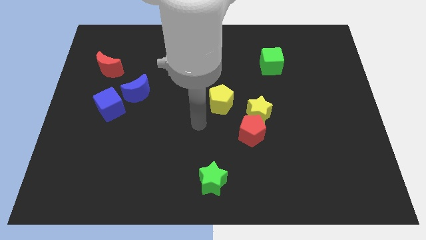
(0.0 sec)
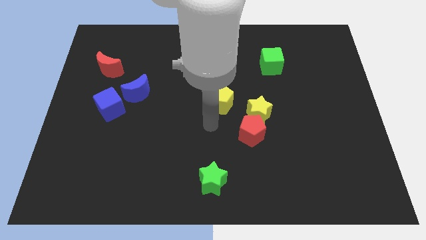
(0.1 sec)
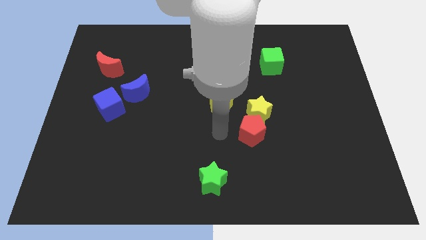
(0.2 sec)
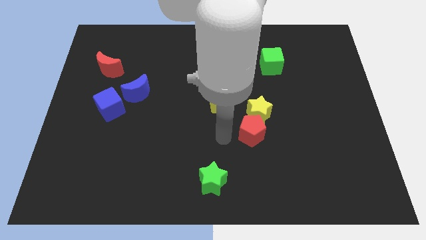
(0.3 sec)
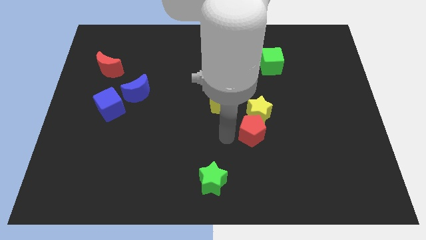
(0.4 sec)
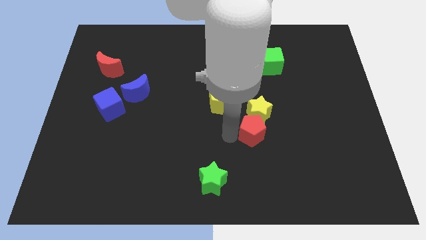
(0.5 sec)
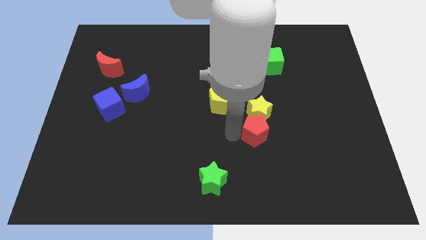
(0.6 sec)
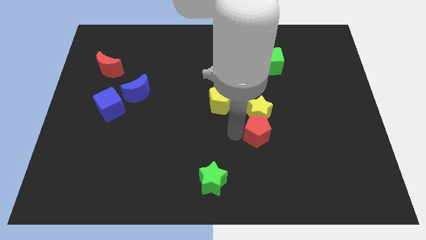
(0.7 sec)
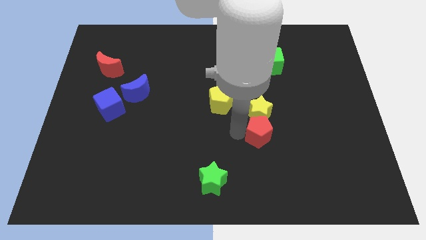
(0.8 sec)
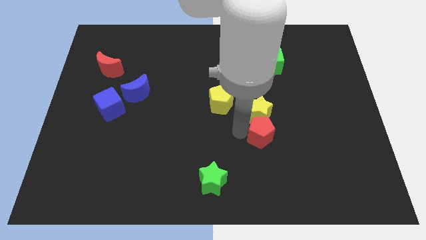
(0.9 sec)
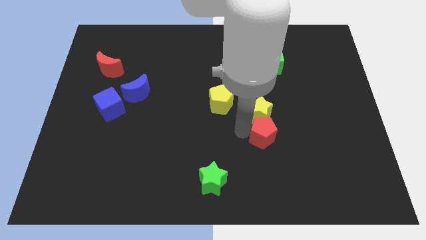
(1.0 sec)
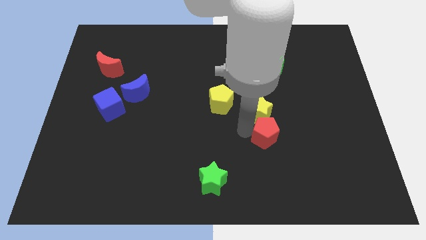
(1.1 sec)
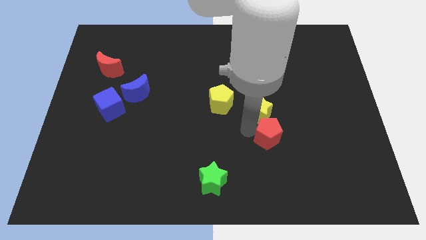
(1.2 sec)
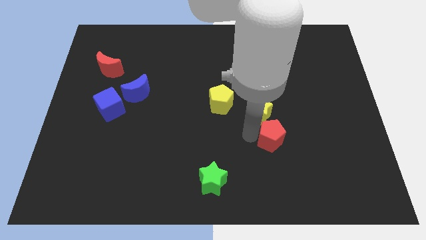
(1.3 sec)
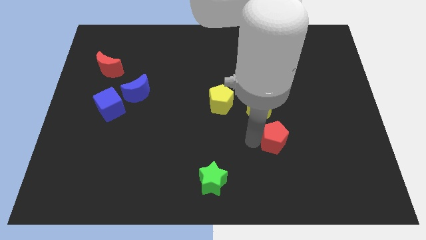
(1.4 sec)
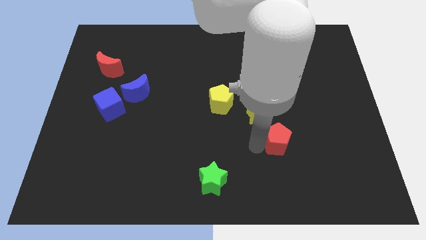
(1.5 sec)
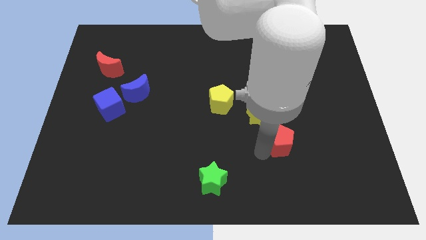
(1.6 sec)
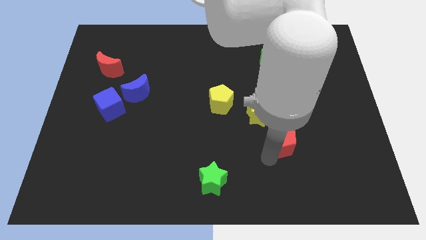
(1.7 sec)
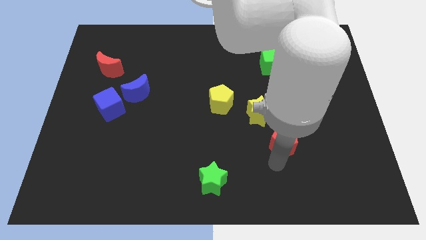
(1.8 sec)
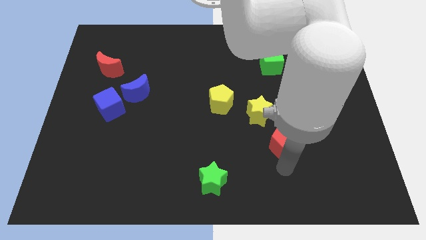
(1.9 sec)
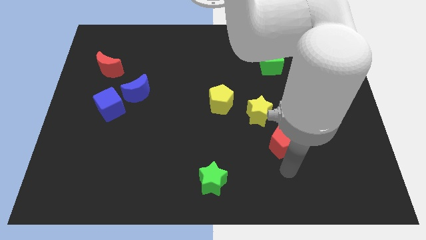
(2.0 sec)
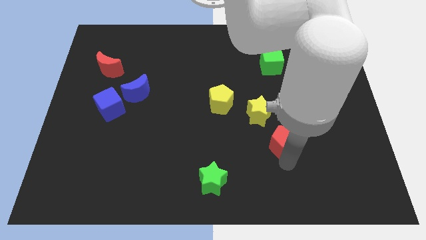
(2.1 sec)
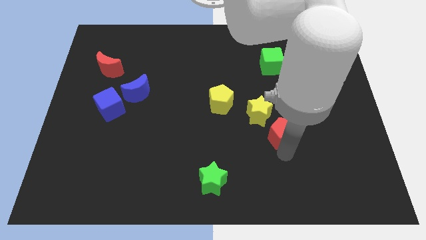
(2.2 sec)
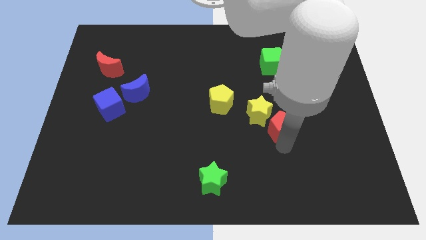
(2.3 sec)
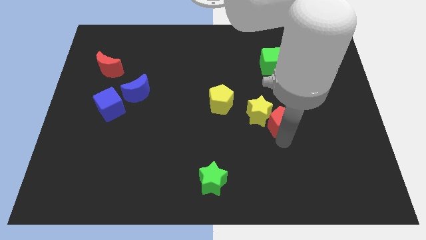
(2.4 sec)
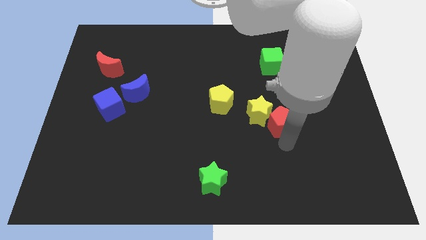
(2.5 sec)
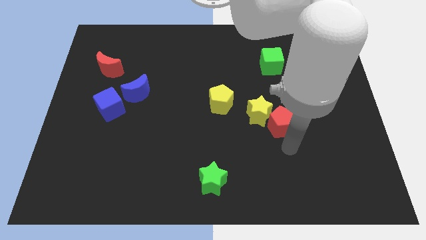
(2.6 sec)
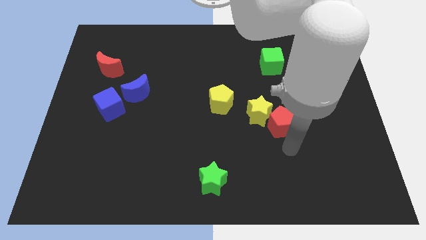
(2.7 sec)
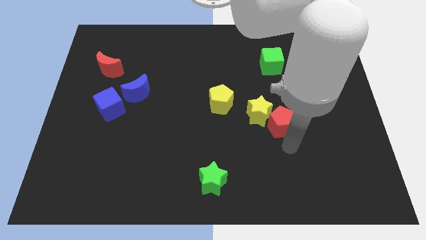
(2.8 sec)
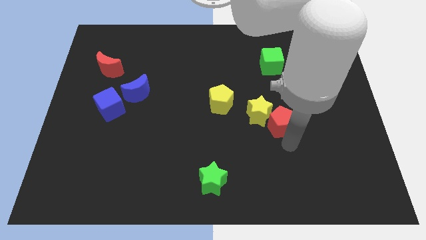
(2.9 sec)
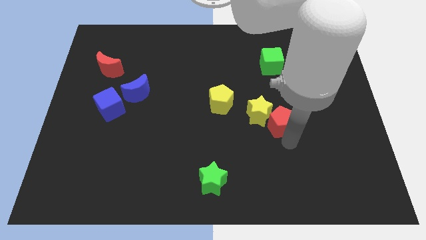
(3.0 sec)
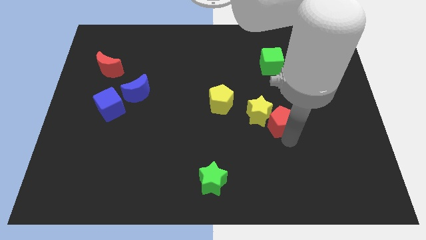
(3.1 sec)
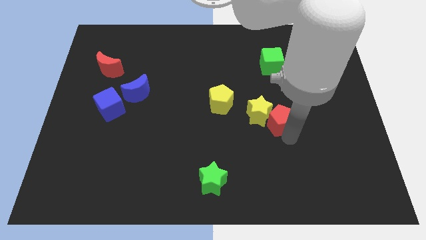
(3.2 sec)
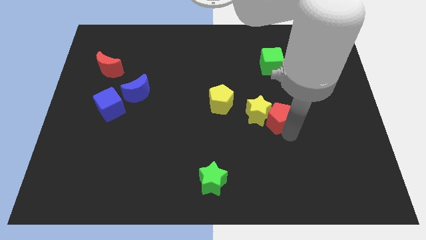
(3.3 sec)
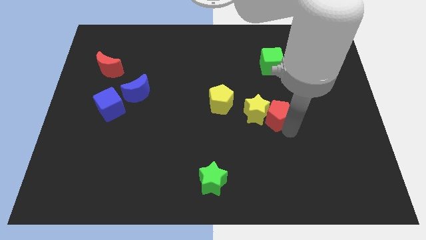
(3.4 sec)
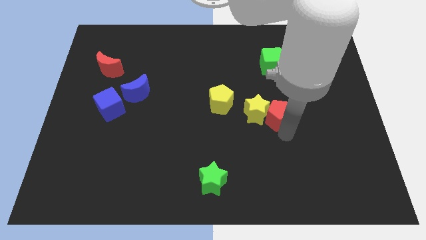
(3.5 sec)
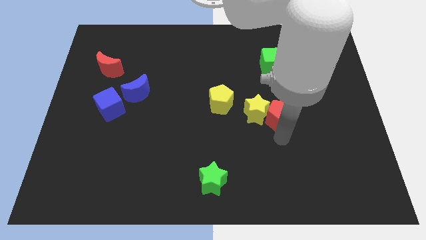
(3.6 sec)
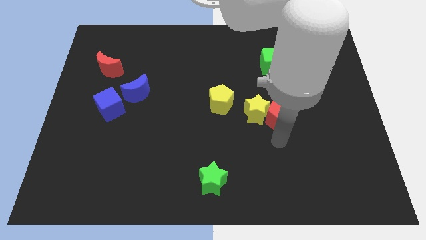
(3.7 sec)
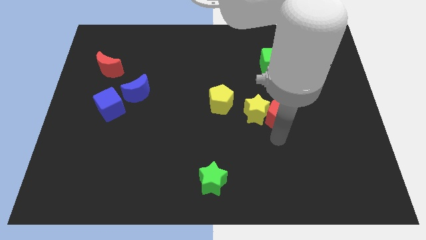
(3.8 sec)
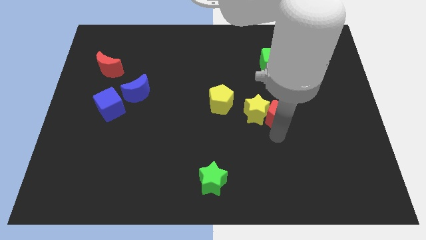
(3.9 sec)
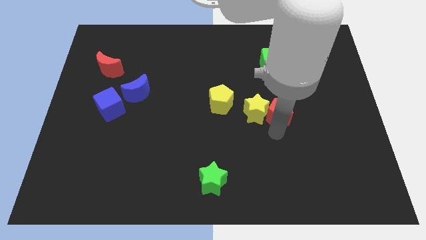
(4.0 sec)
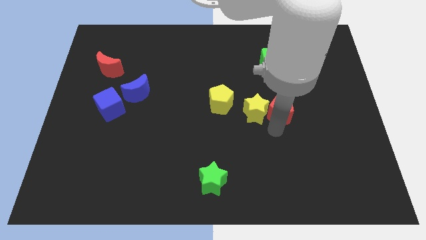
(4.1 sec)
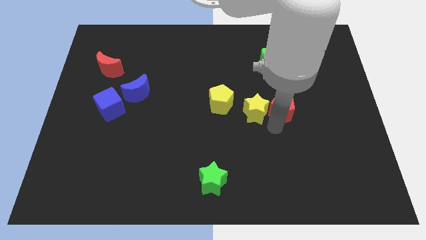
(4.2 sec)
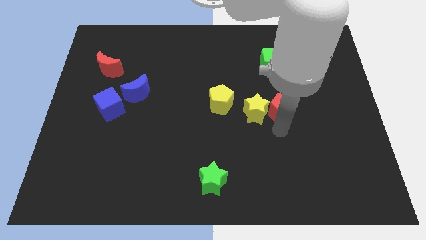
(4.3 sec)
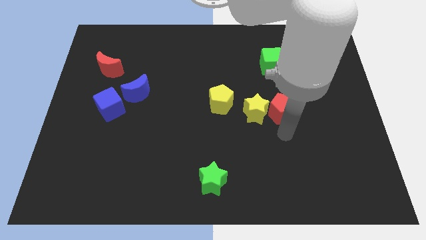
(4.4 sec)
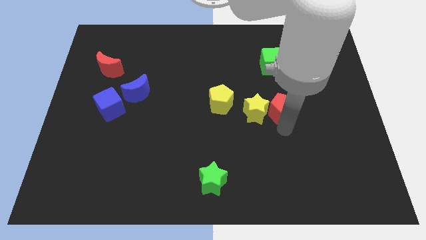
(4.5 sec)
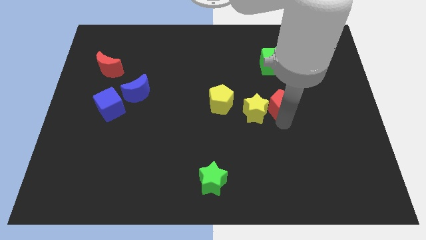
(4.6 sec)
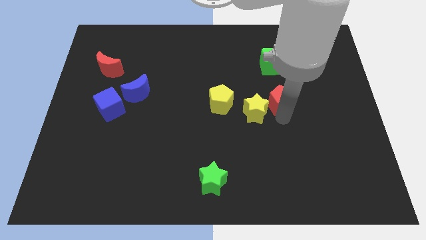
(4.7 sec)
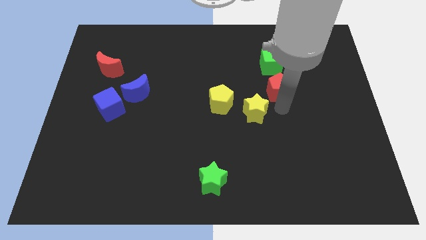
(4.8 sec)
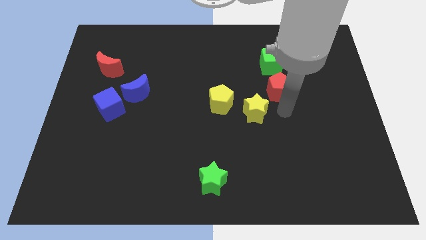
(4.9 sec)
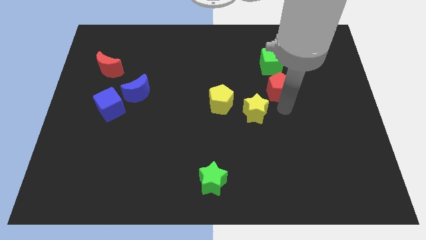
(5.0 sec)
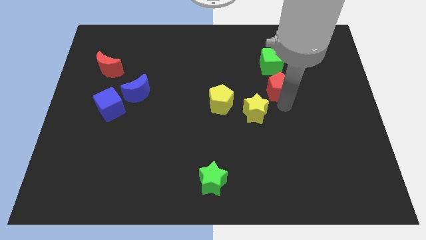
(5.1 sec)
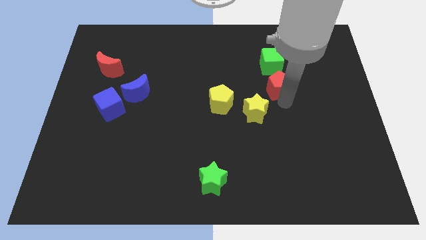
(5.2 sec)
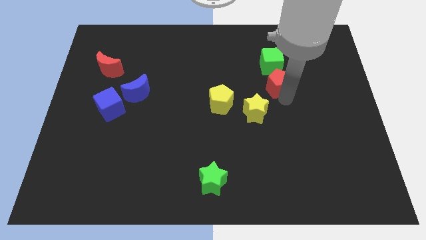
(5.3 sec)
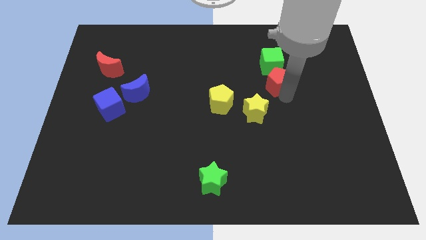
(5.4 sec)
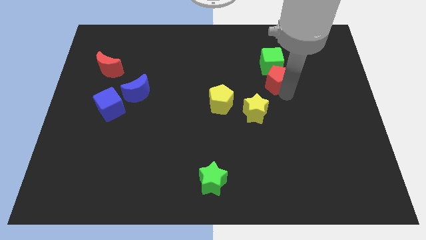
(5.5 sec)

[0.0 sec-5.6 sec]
move the red pentagon towards the green cube

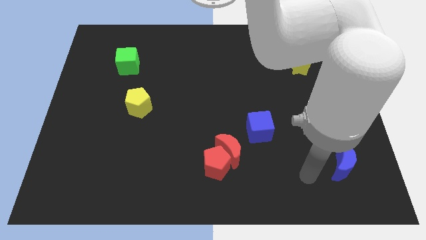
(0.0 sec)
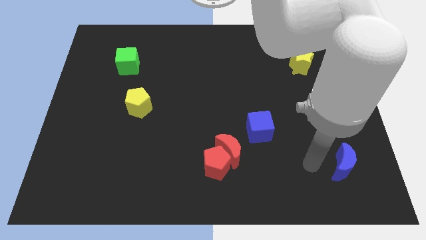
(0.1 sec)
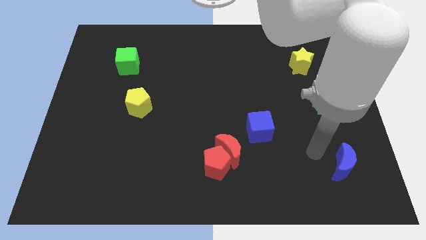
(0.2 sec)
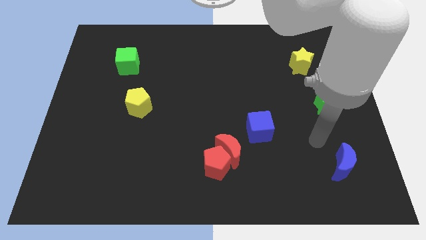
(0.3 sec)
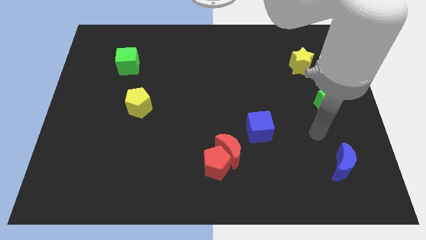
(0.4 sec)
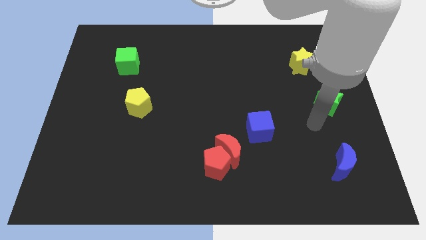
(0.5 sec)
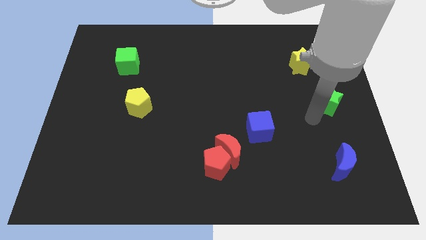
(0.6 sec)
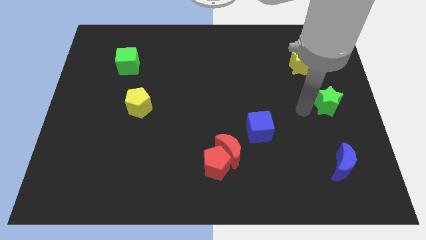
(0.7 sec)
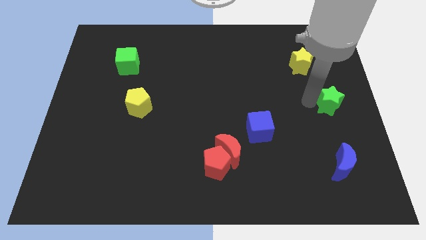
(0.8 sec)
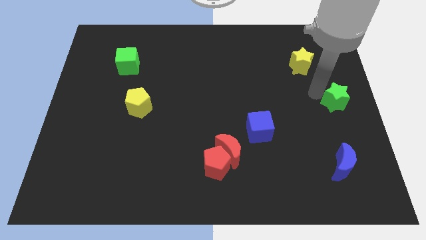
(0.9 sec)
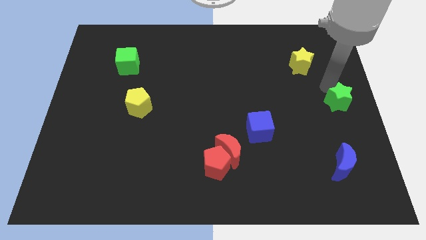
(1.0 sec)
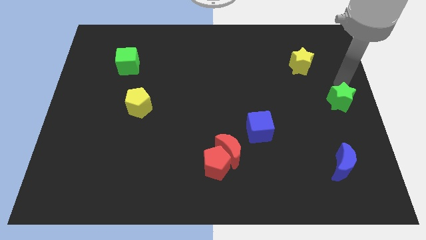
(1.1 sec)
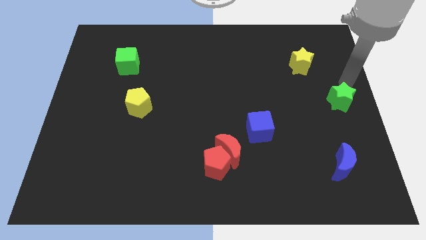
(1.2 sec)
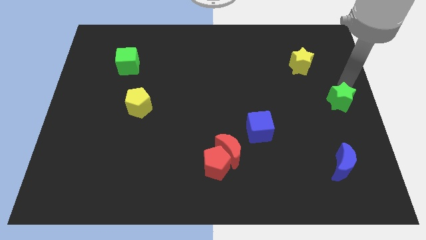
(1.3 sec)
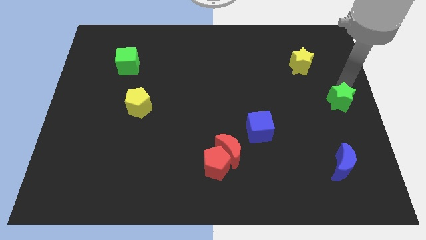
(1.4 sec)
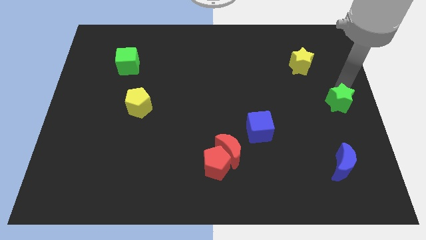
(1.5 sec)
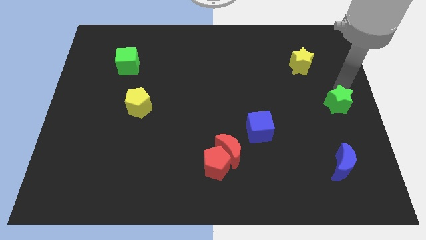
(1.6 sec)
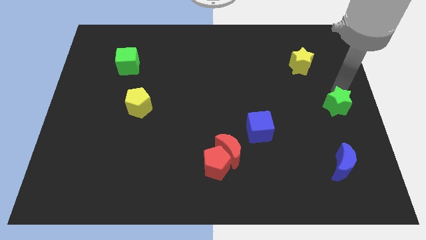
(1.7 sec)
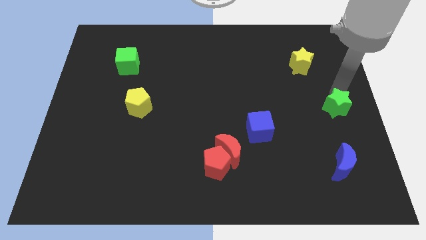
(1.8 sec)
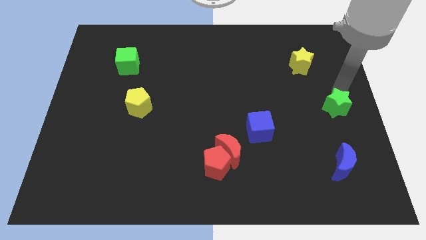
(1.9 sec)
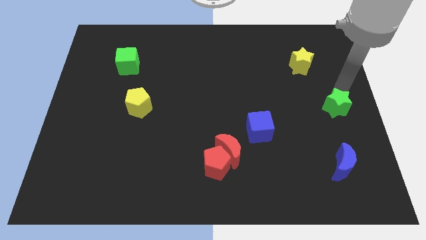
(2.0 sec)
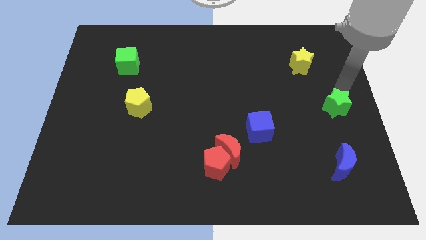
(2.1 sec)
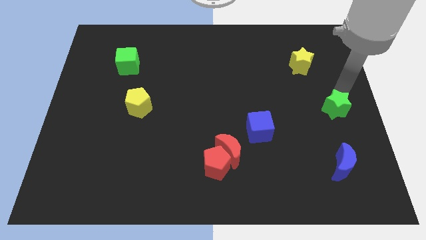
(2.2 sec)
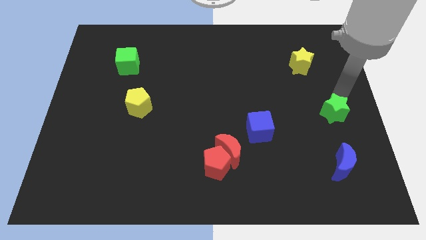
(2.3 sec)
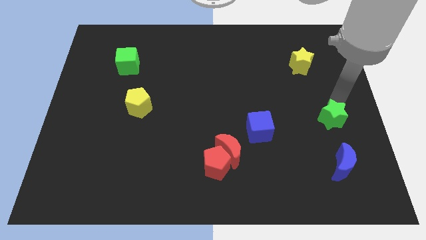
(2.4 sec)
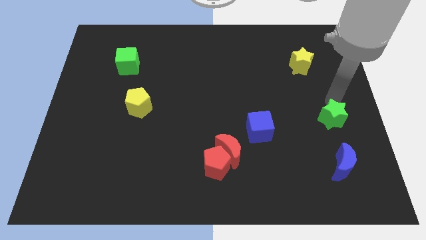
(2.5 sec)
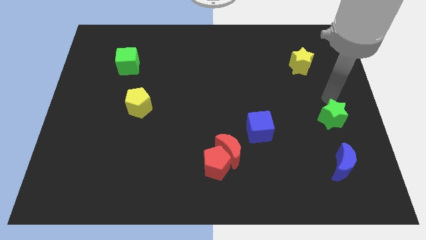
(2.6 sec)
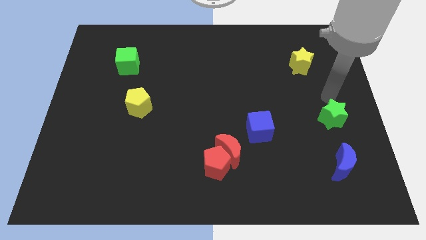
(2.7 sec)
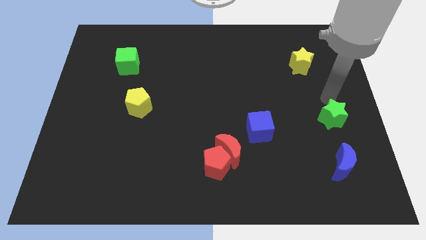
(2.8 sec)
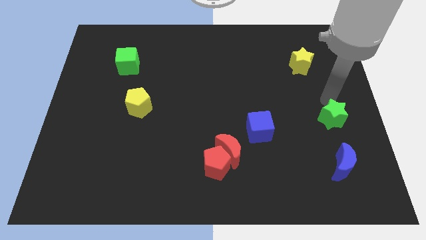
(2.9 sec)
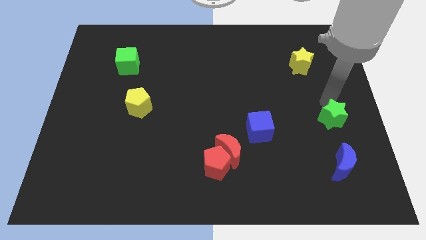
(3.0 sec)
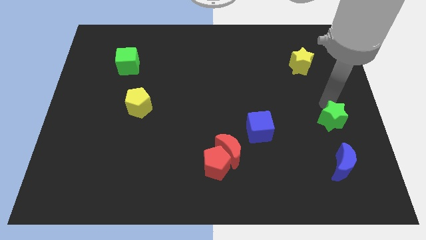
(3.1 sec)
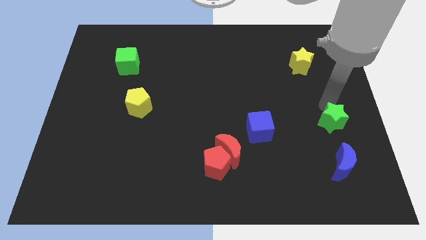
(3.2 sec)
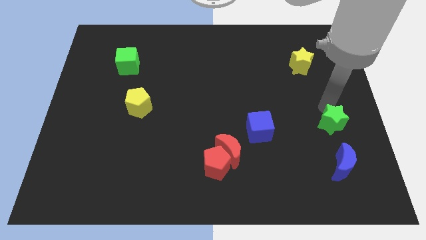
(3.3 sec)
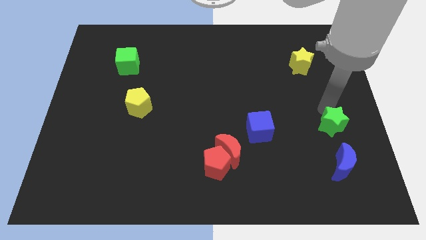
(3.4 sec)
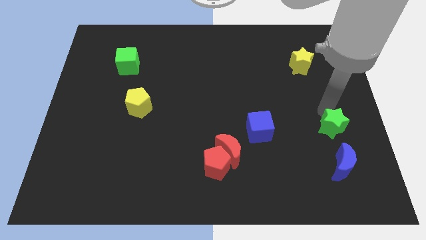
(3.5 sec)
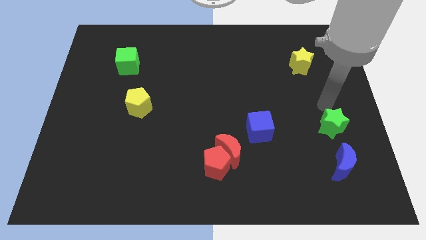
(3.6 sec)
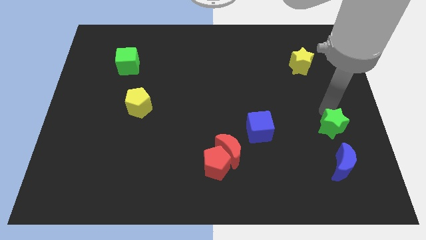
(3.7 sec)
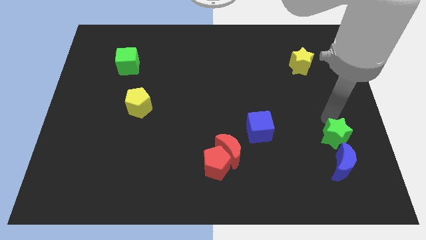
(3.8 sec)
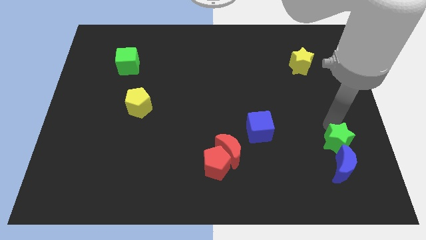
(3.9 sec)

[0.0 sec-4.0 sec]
push the green star close to the blue moon
